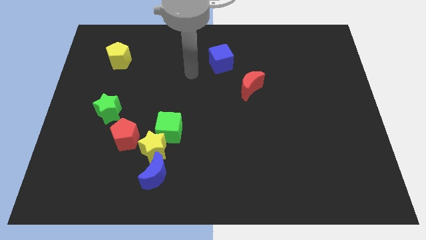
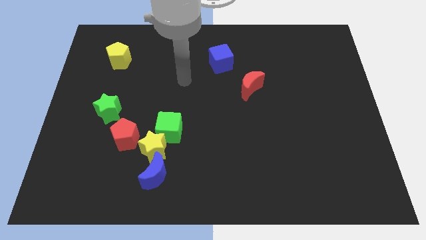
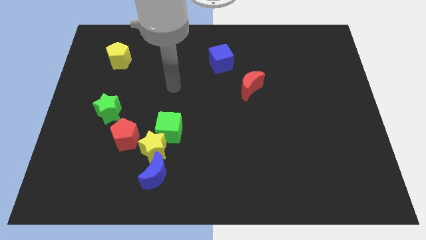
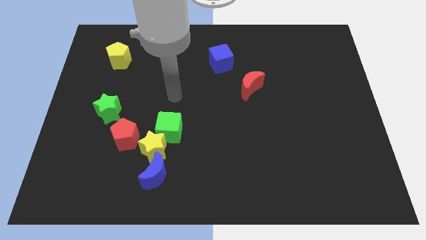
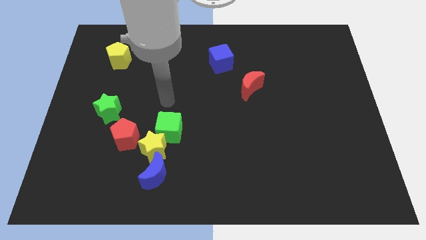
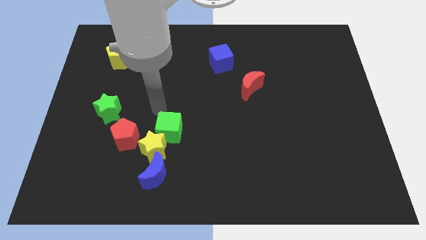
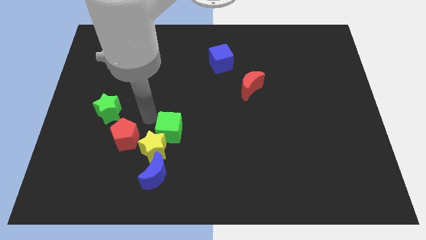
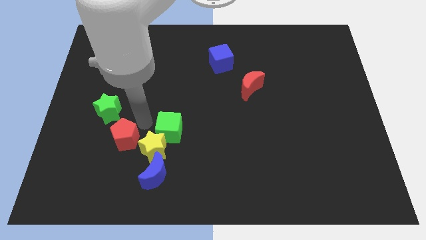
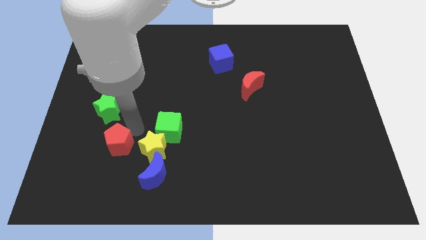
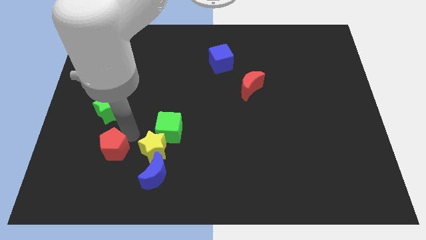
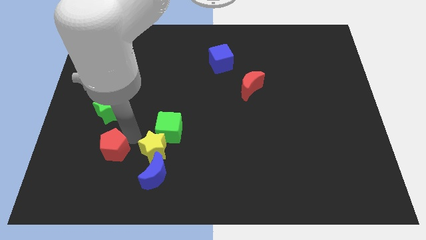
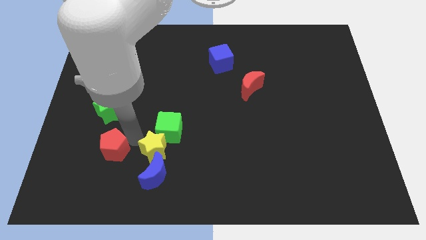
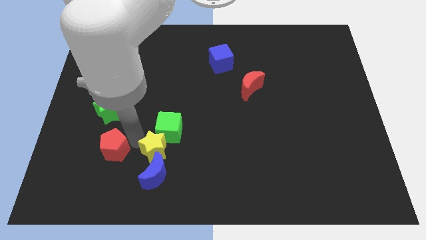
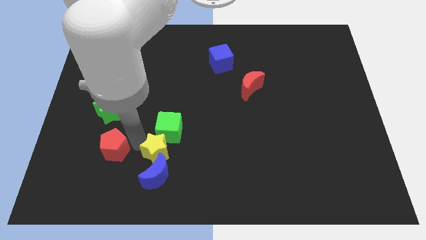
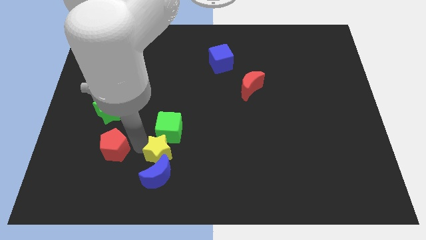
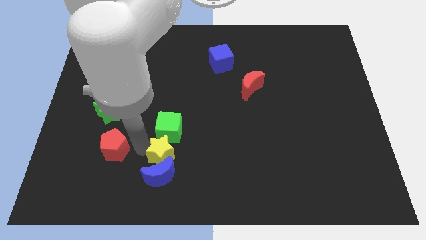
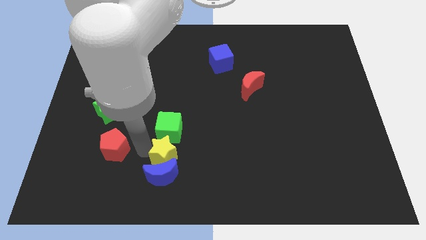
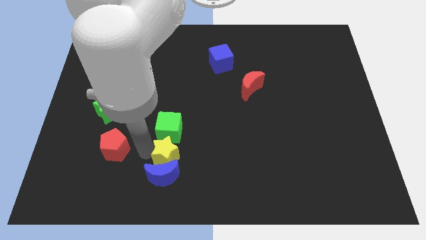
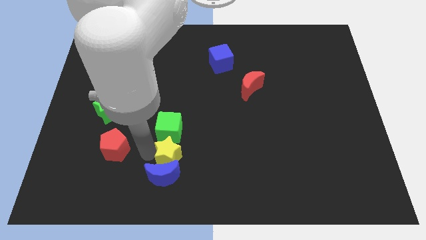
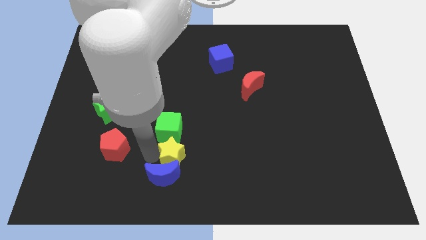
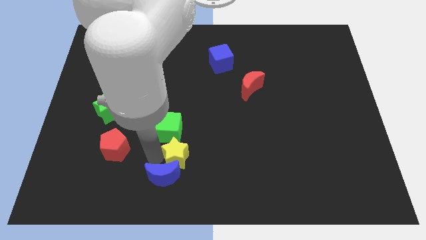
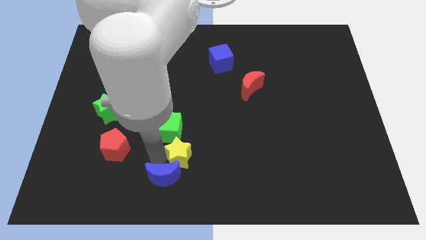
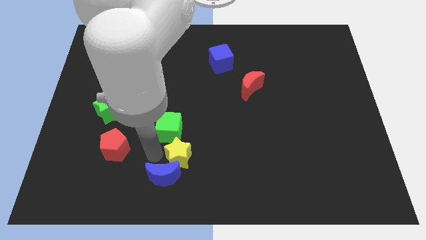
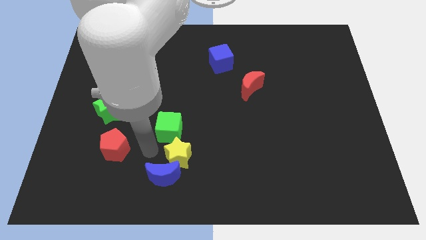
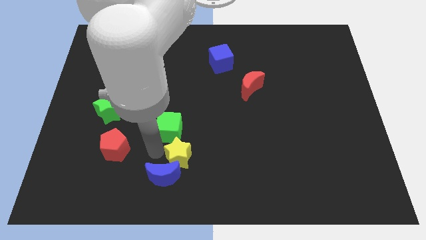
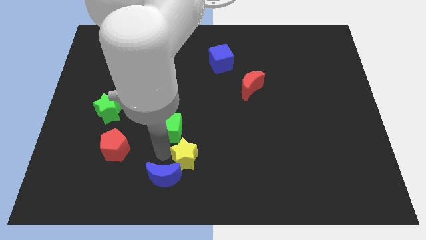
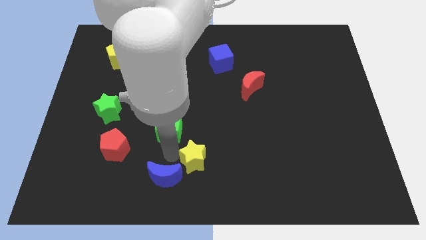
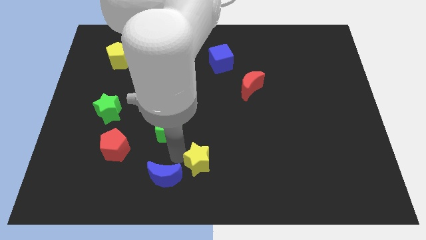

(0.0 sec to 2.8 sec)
separate the yellow star from the green cube, blue moon, and red pentagon

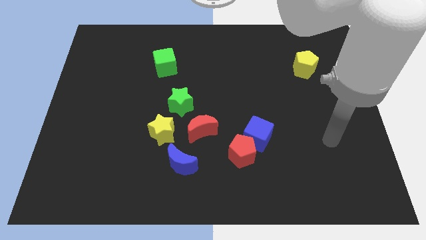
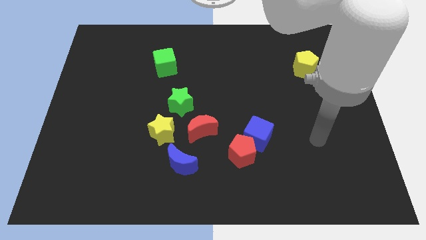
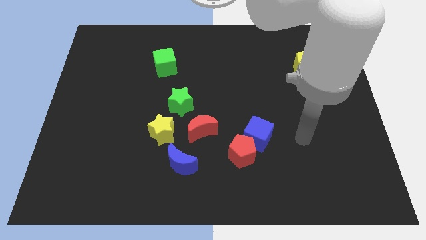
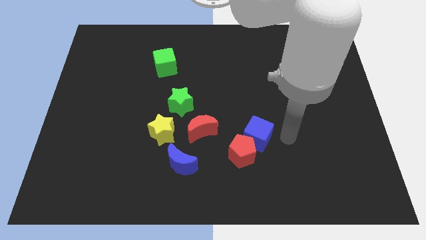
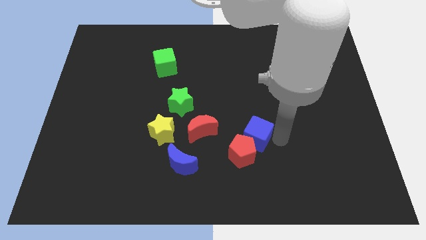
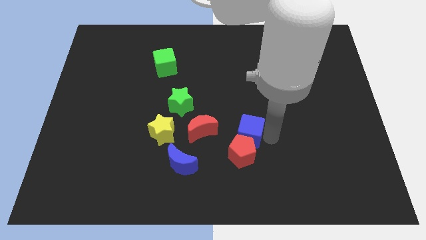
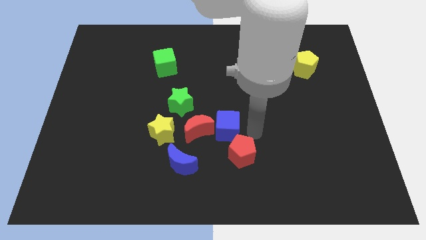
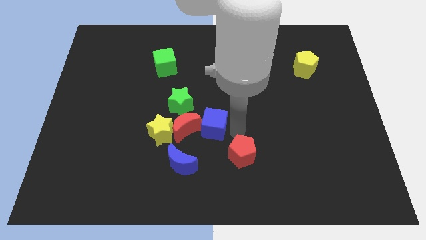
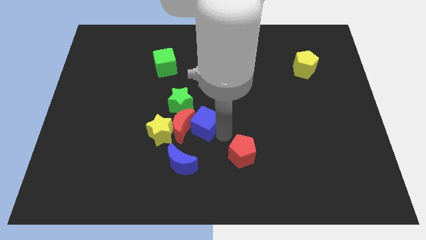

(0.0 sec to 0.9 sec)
pull the red pentagon apart from the blue cube

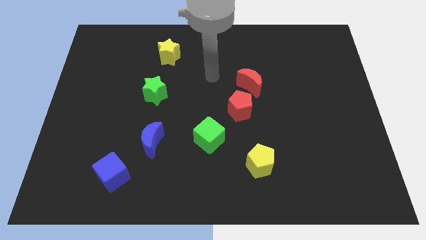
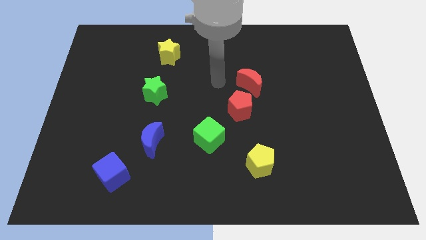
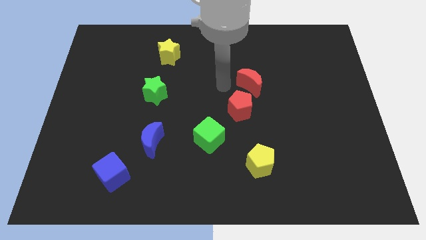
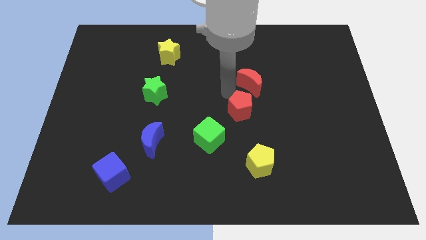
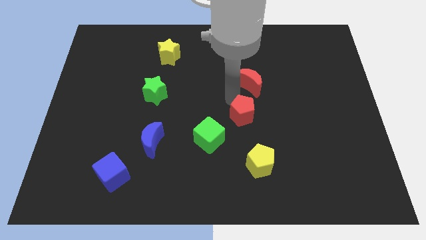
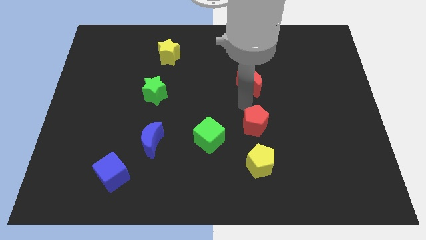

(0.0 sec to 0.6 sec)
separate the red moon from the red pentagon

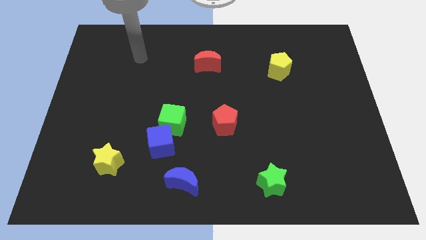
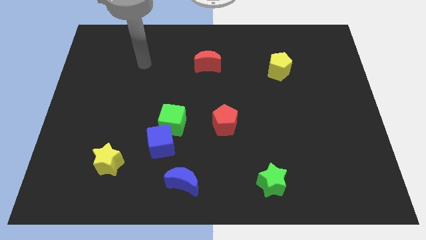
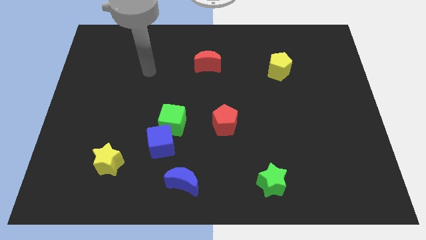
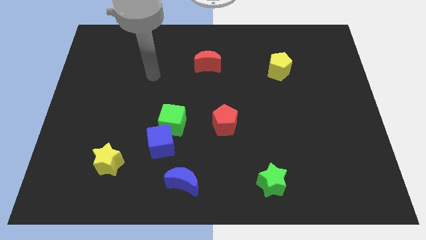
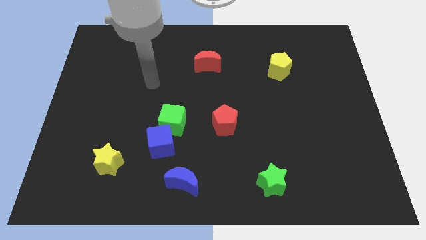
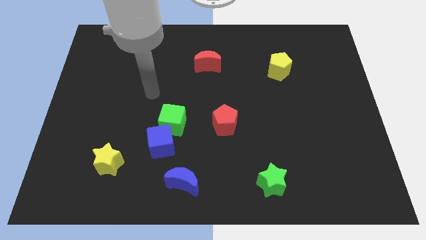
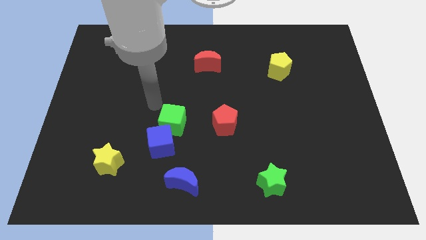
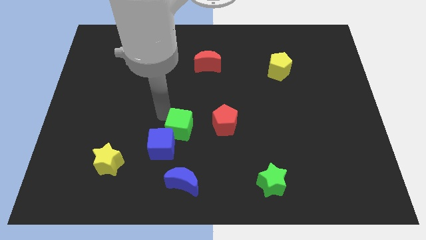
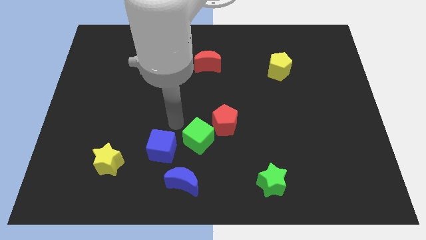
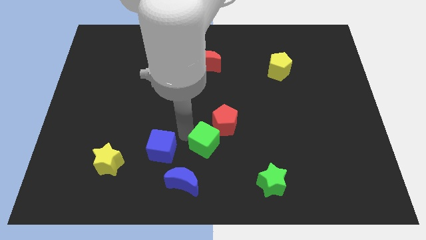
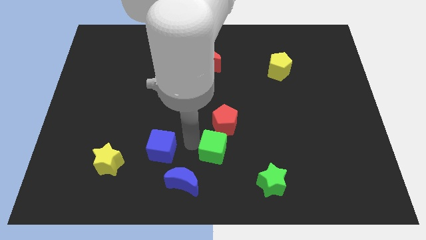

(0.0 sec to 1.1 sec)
separate the blue cube from the green cube

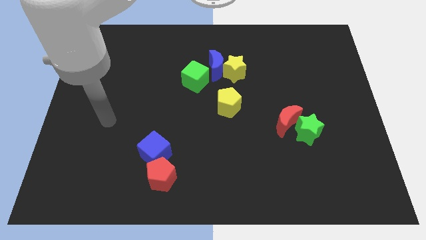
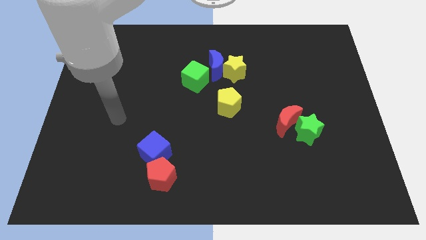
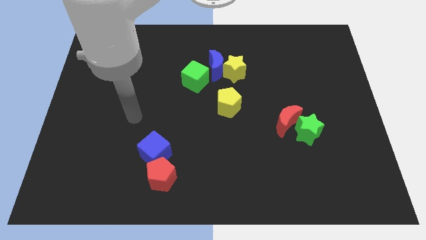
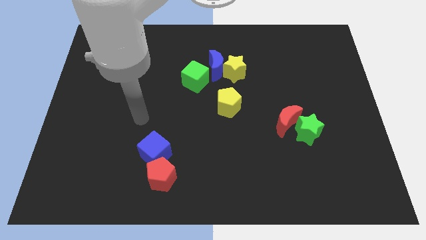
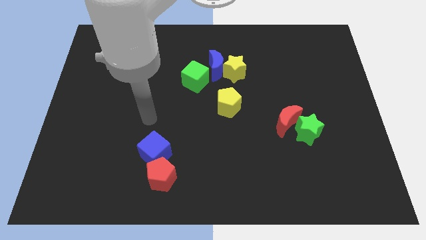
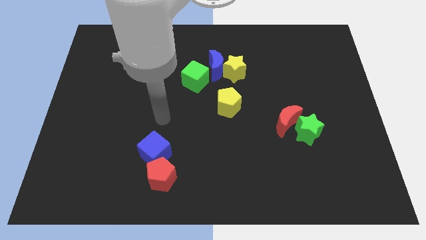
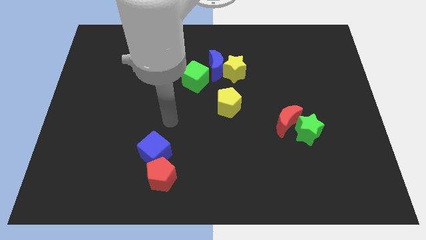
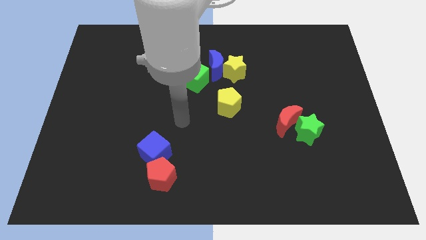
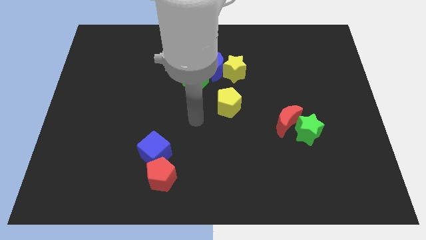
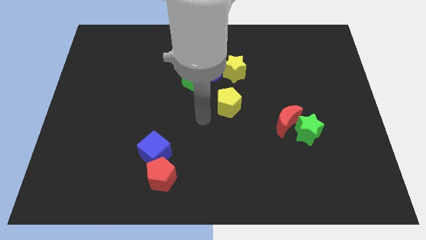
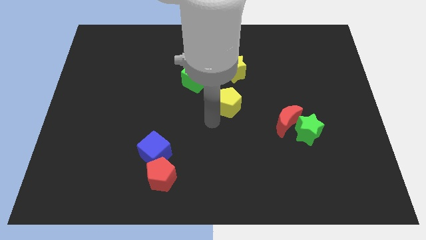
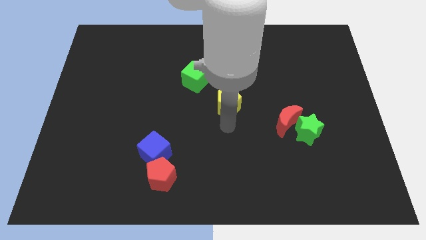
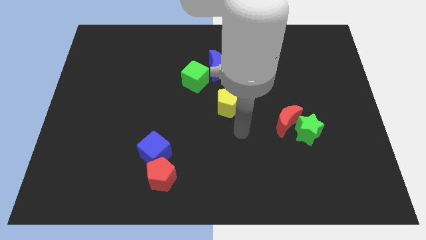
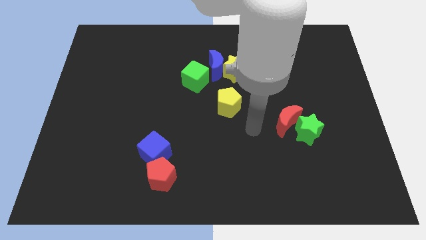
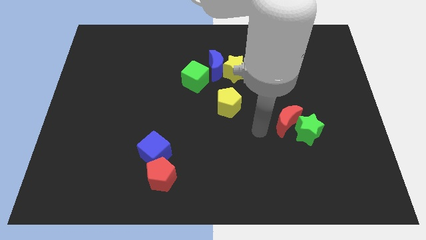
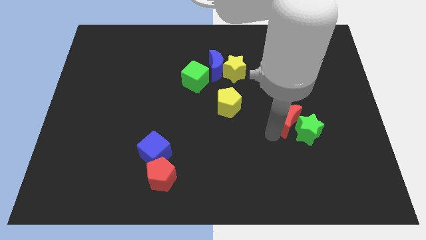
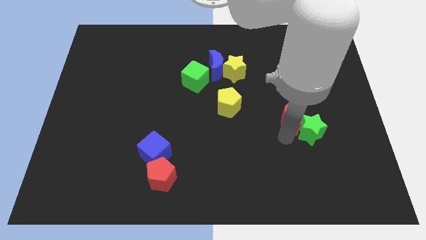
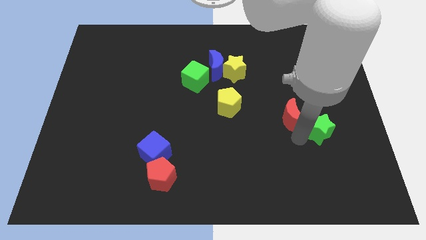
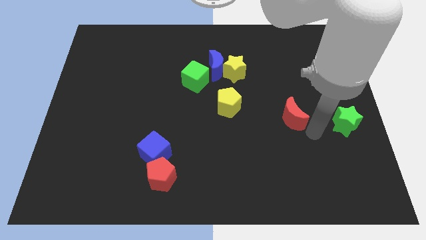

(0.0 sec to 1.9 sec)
pull the red moon apart from the green star

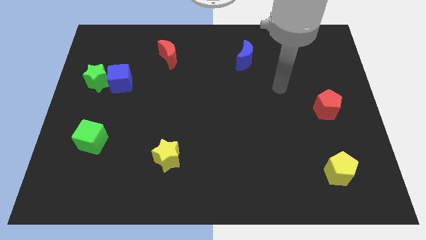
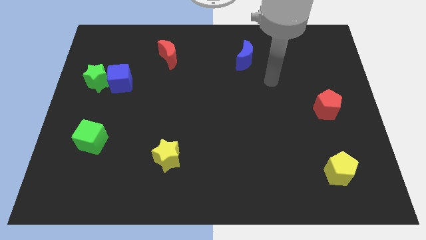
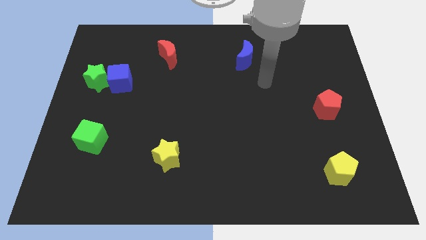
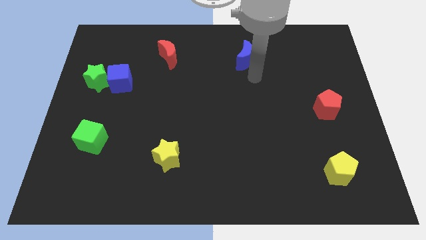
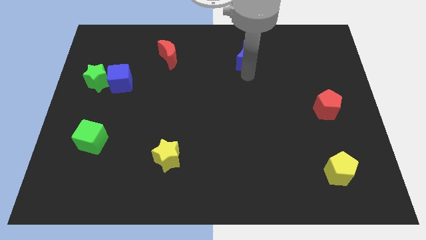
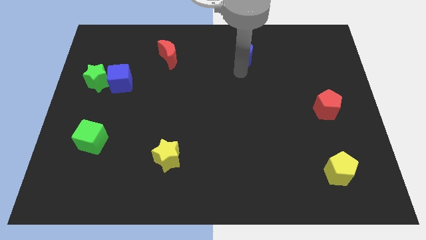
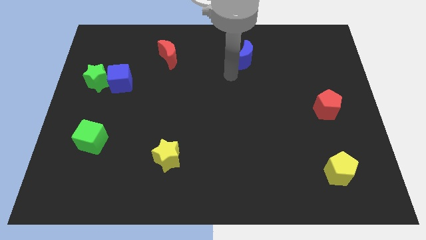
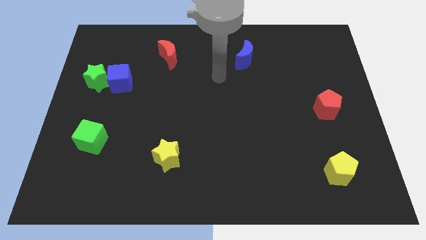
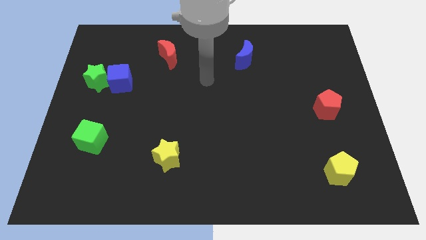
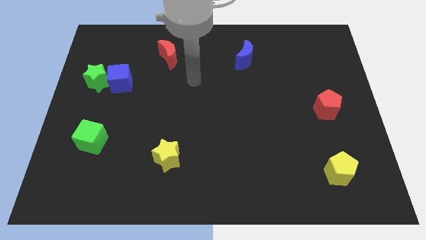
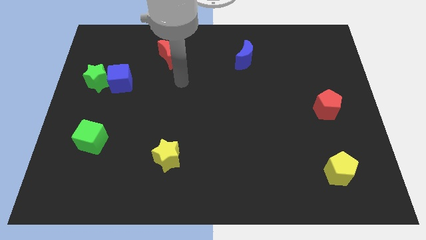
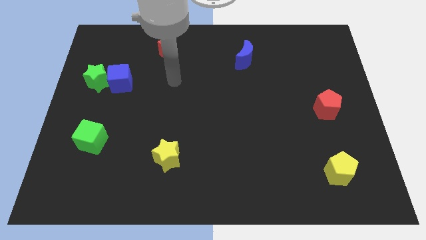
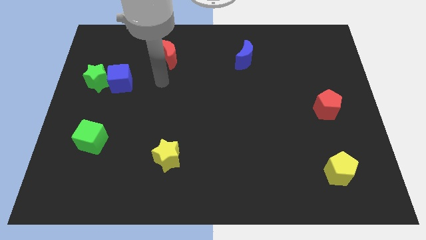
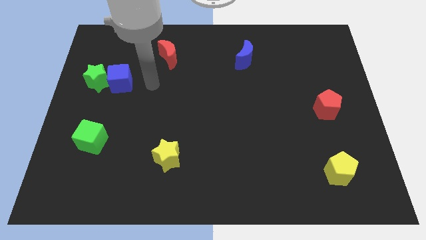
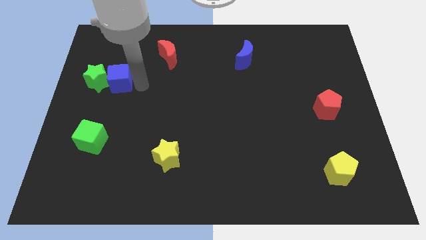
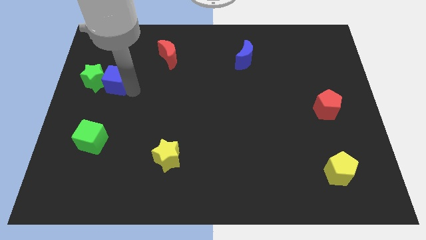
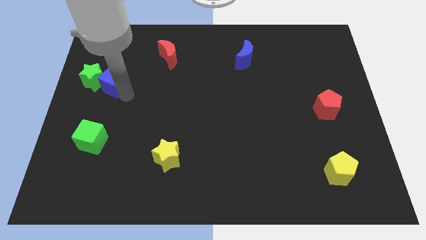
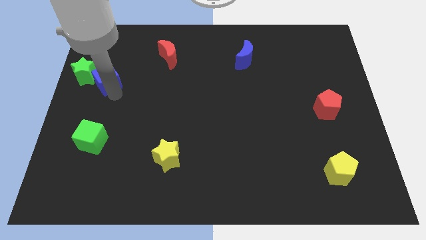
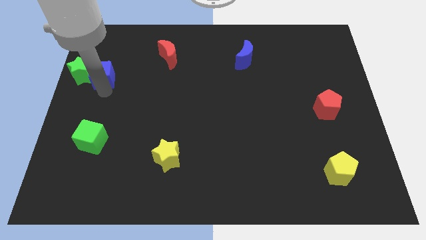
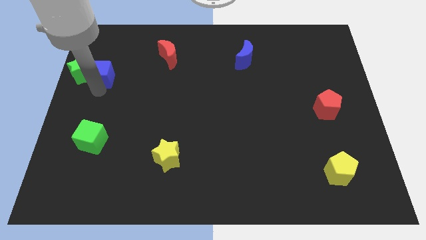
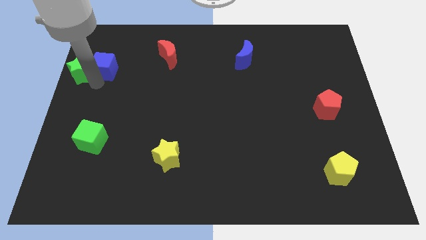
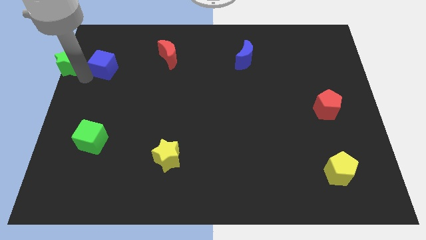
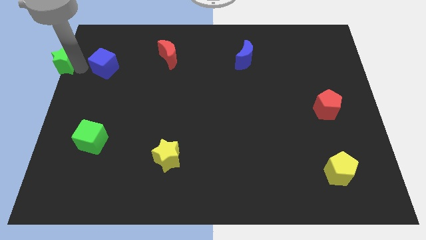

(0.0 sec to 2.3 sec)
separate the blue cube from the green star
